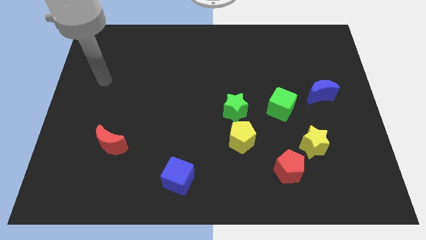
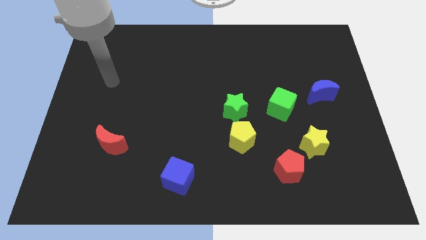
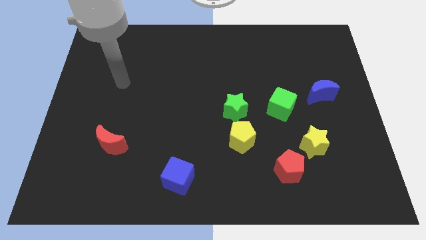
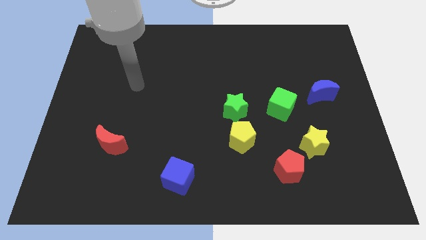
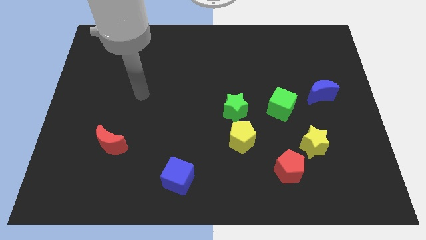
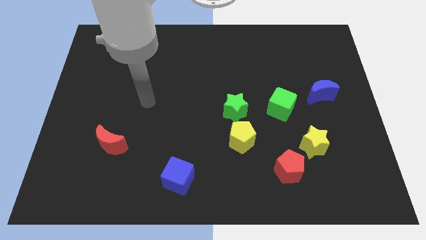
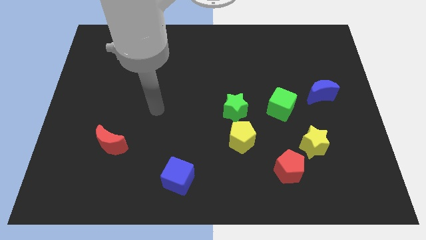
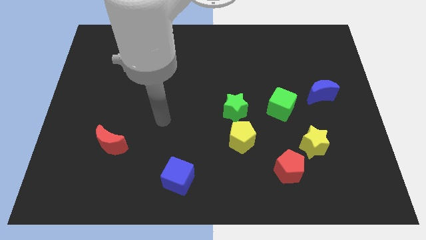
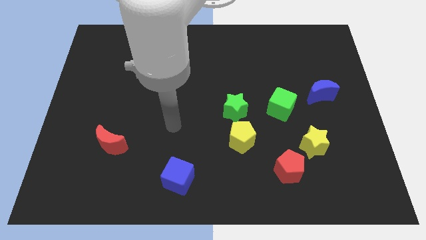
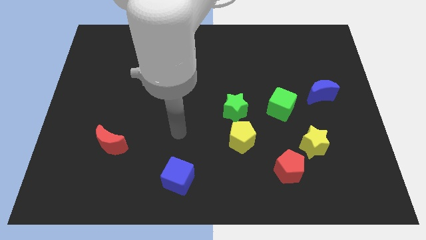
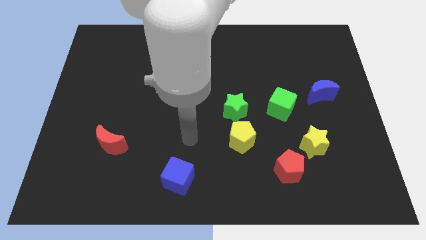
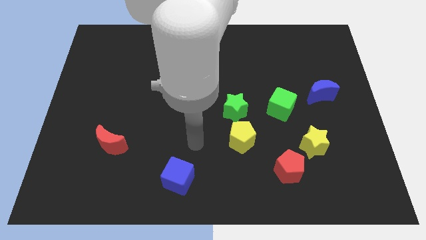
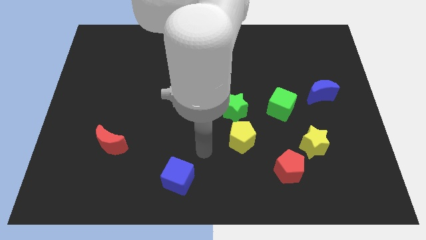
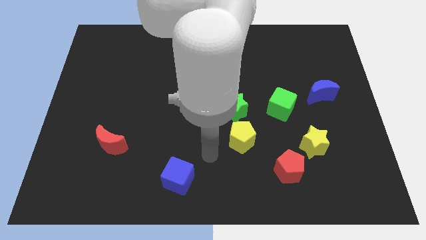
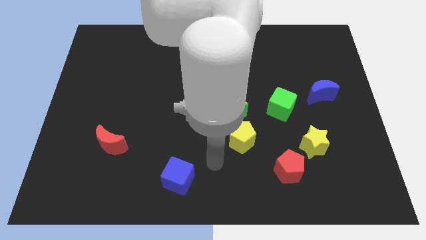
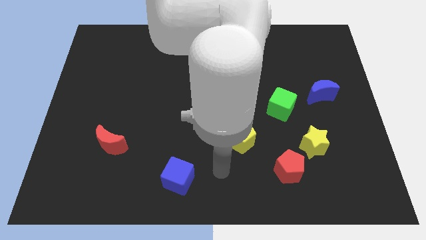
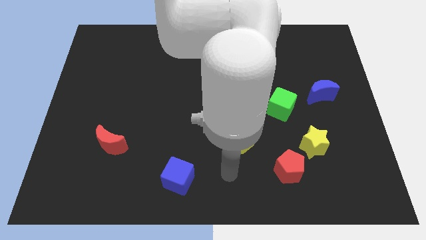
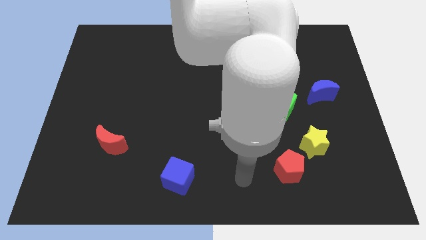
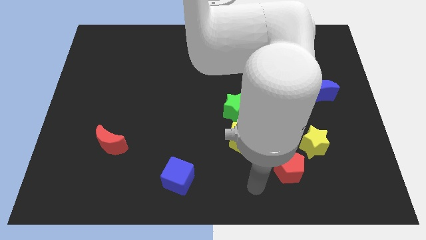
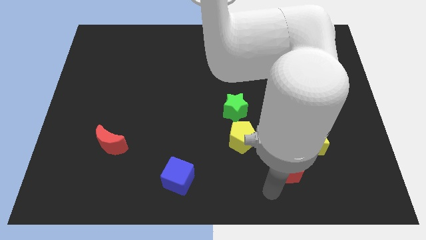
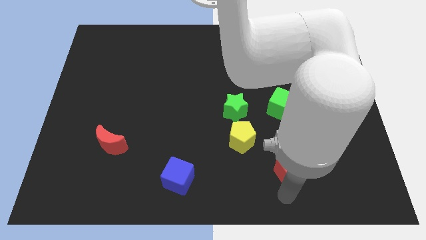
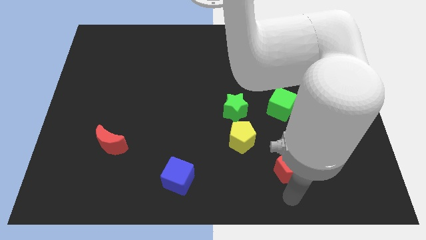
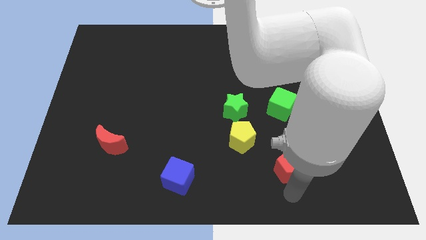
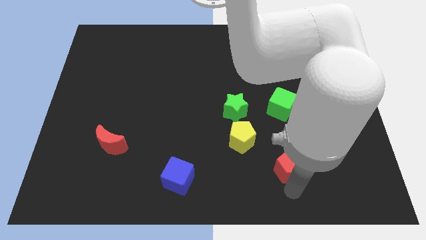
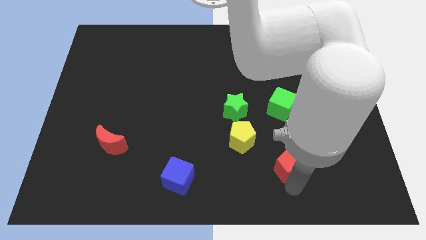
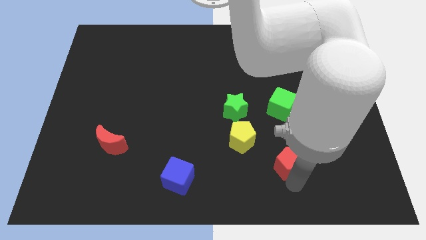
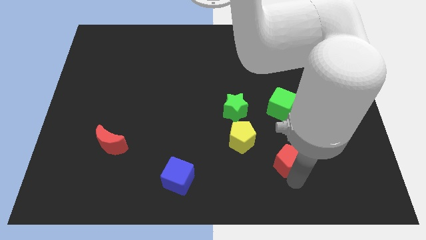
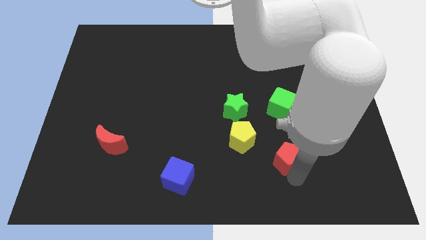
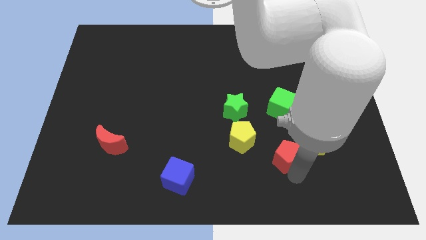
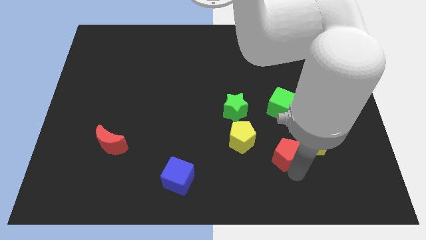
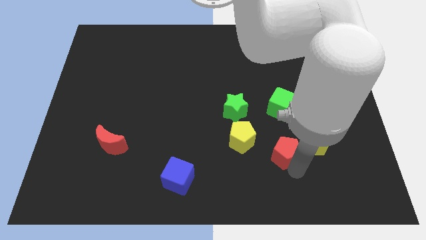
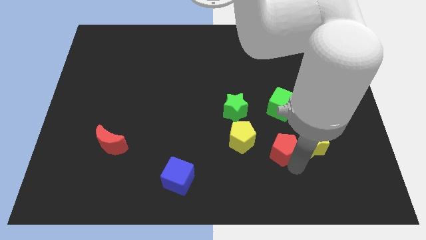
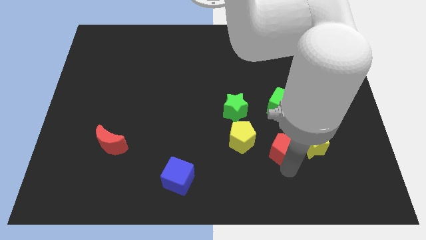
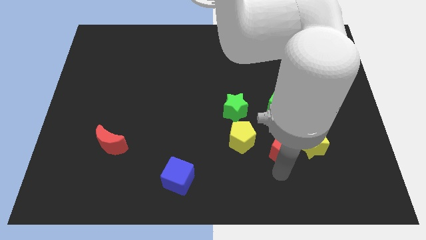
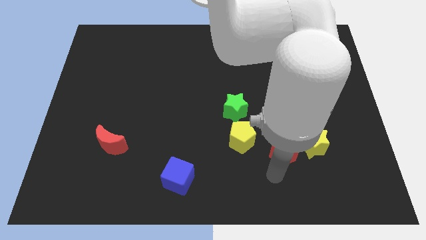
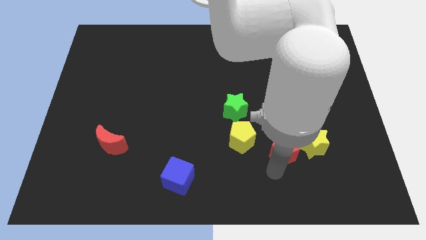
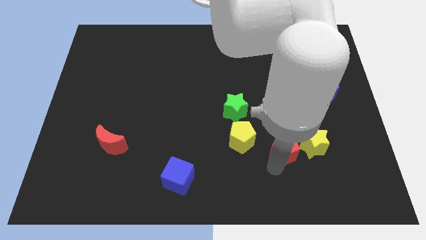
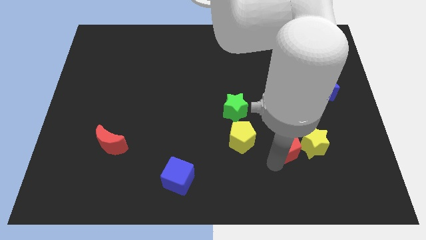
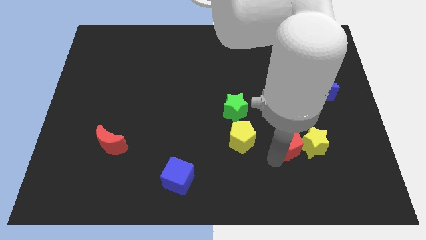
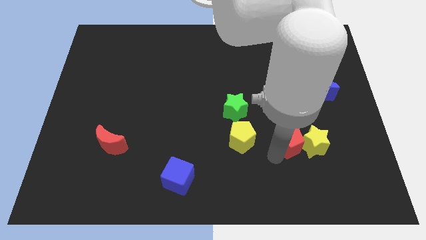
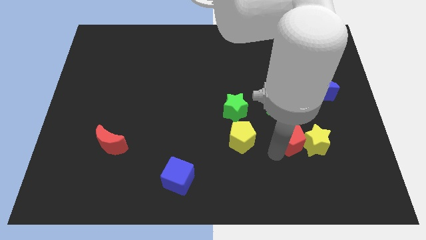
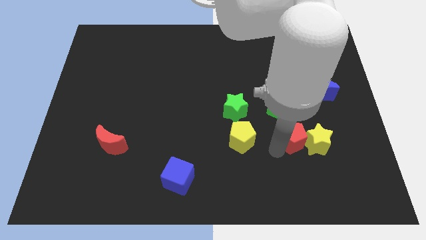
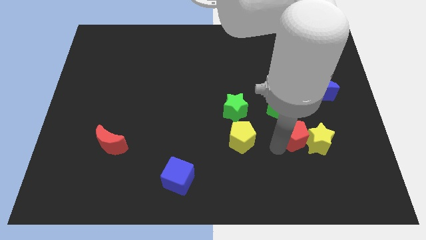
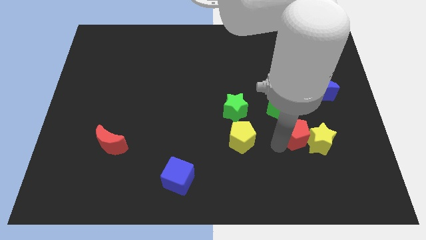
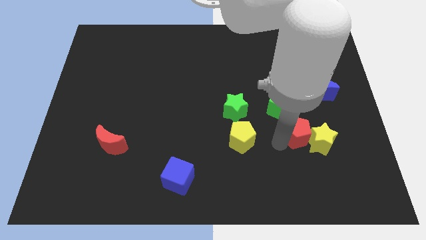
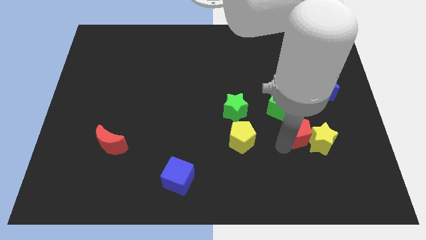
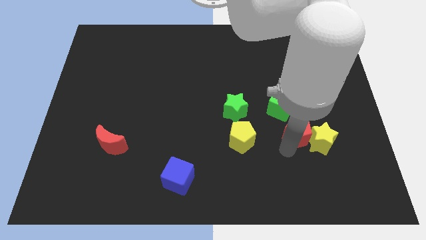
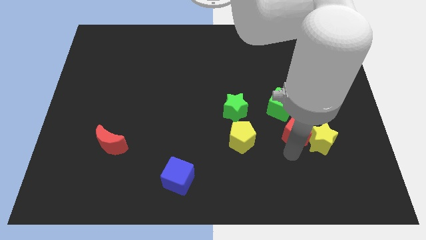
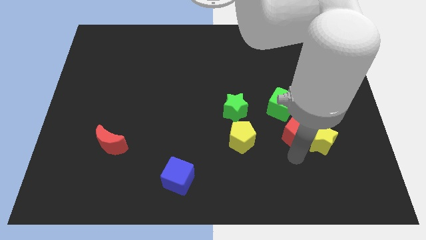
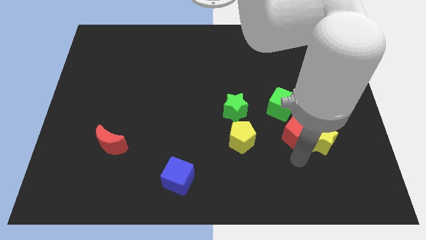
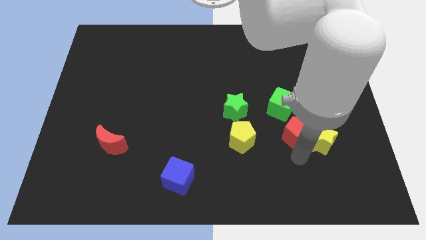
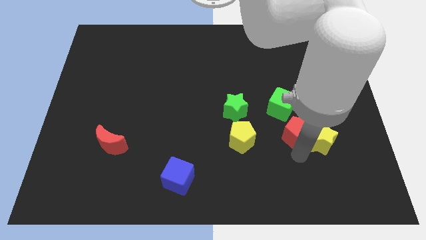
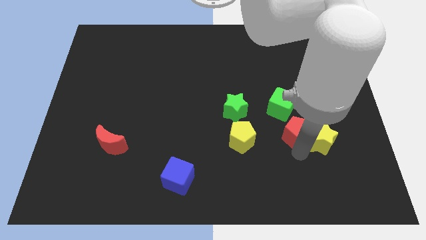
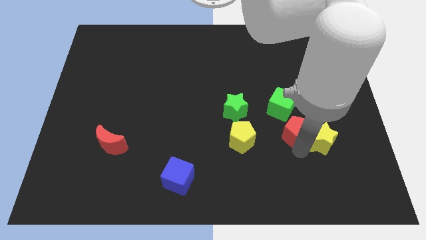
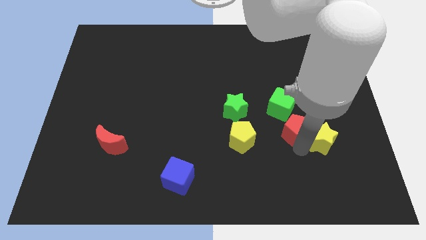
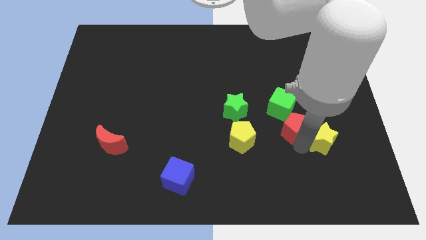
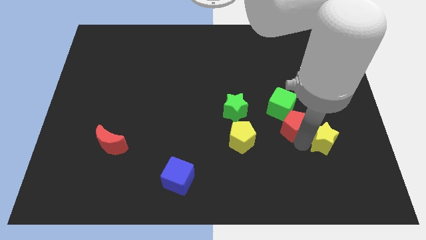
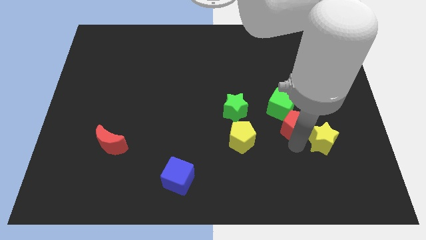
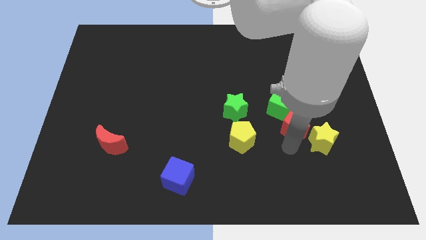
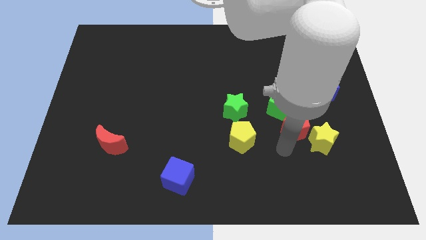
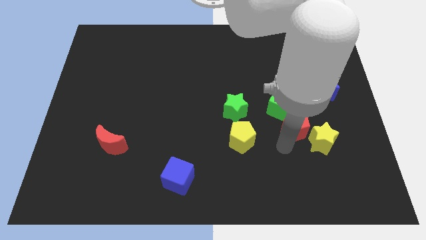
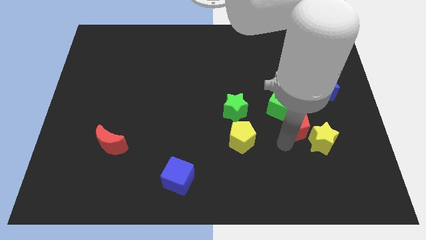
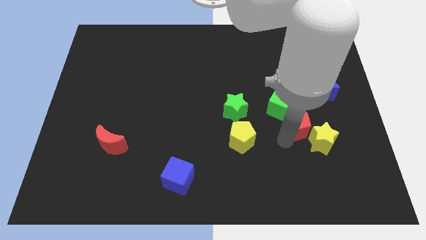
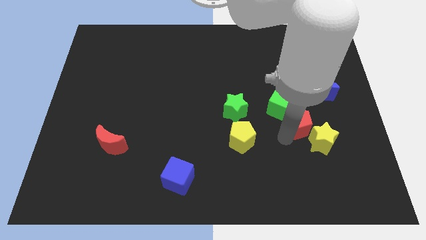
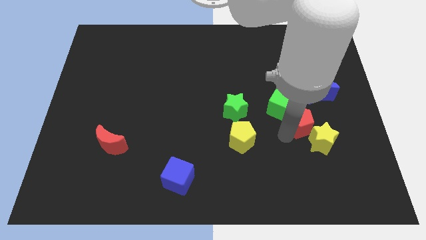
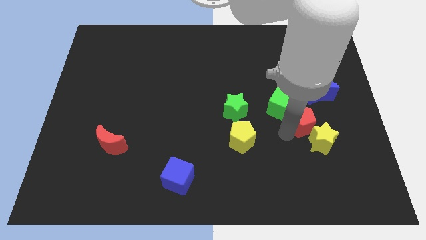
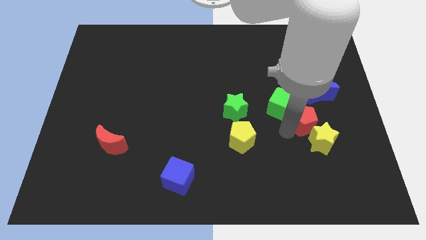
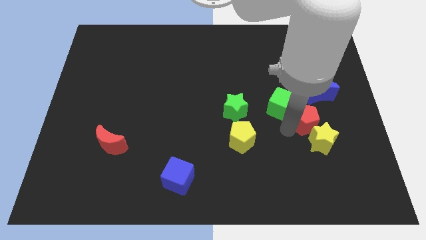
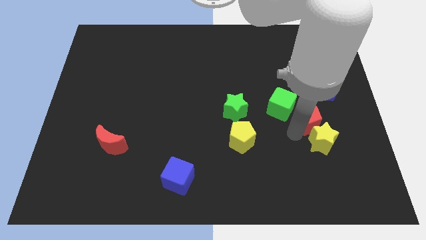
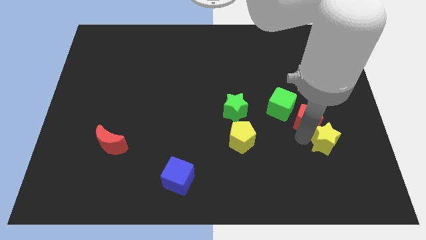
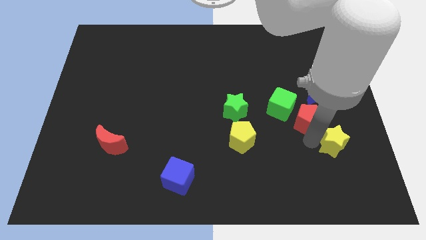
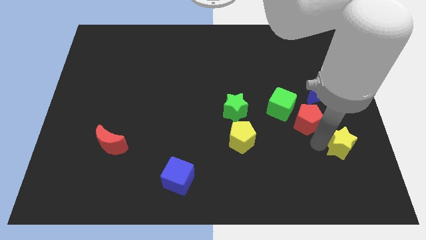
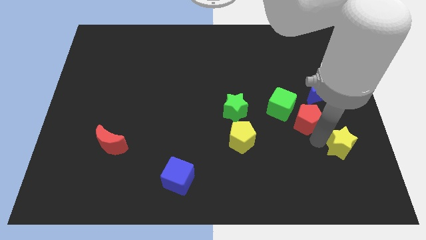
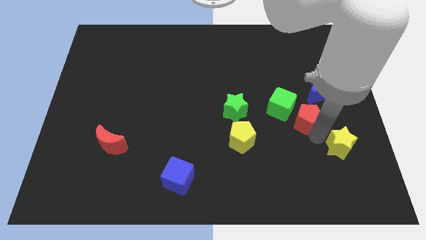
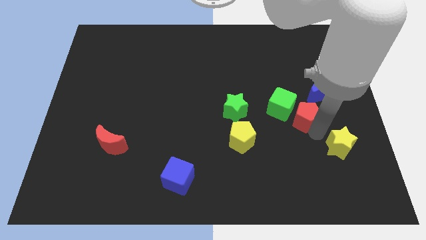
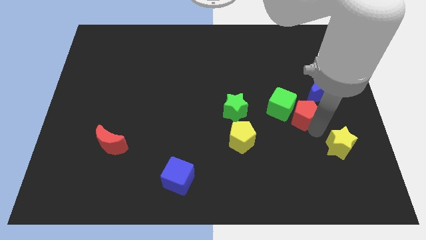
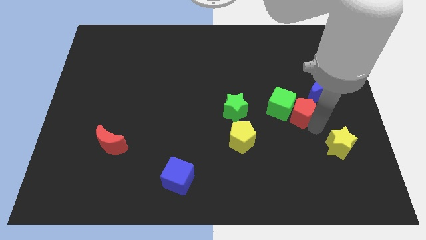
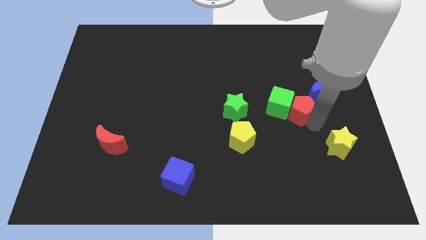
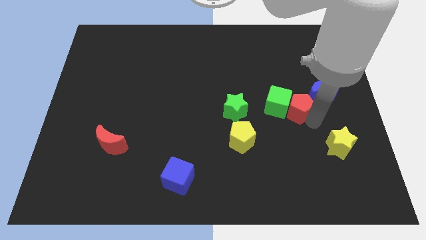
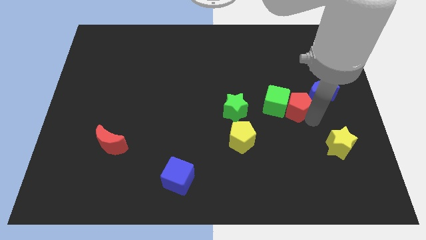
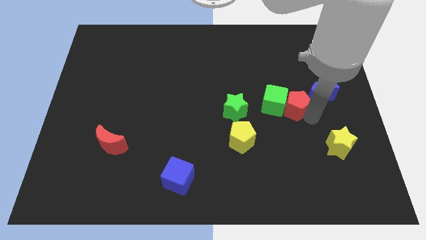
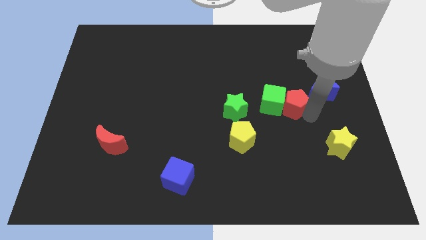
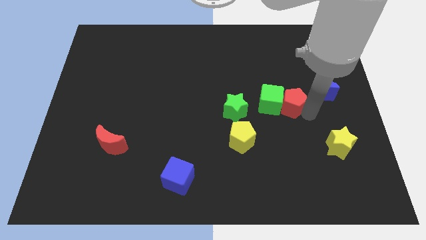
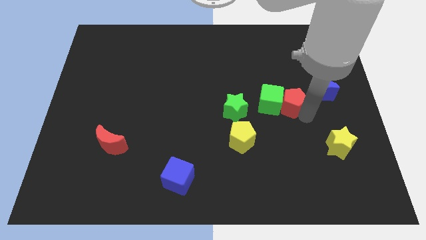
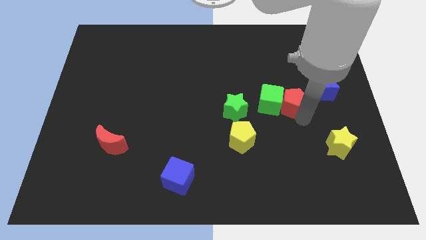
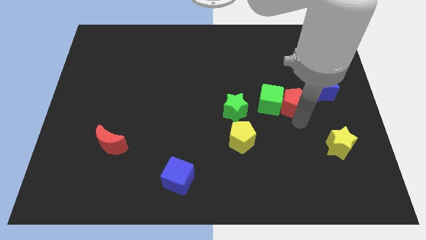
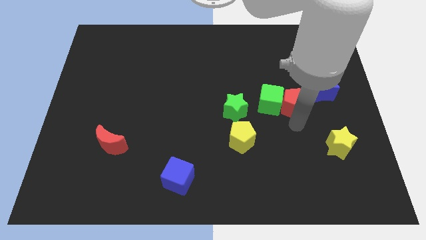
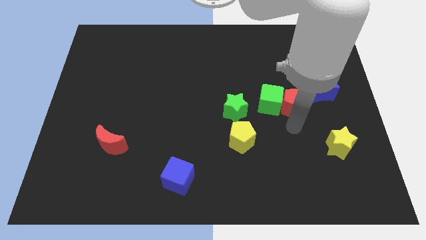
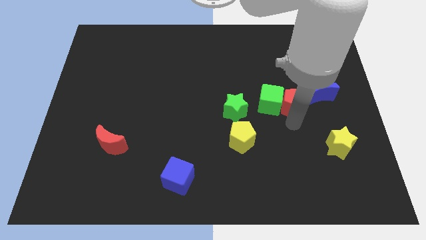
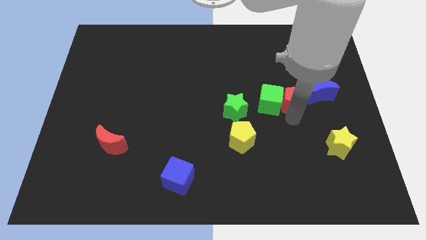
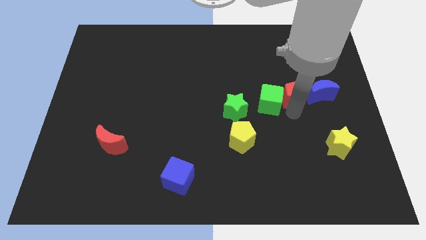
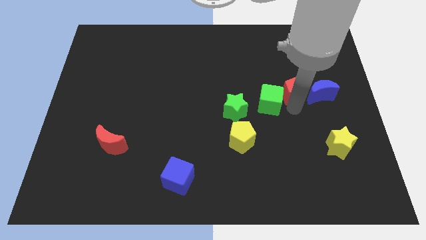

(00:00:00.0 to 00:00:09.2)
move the red pentagon upwards
